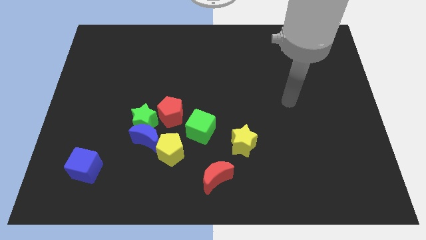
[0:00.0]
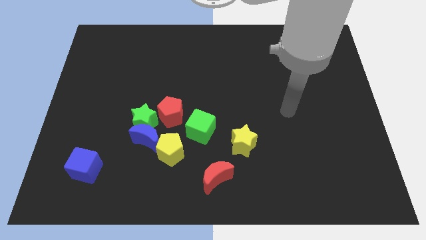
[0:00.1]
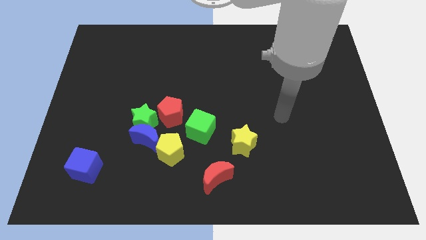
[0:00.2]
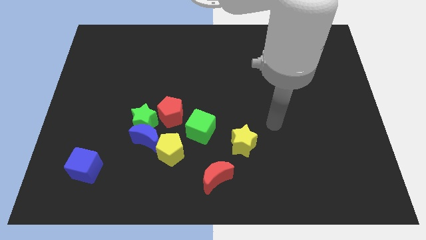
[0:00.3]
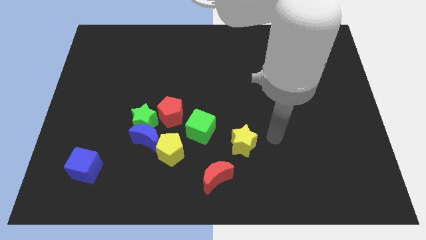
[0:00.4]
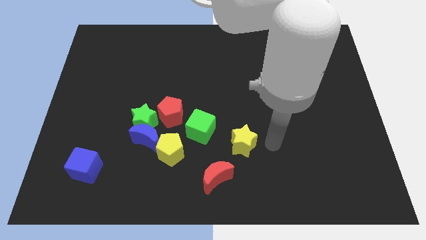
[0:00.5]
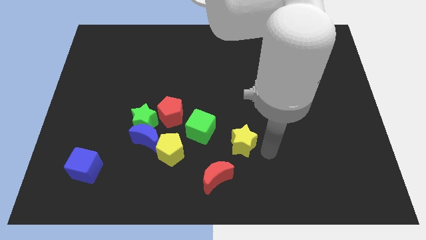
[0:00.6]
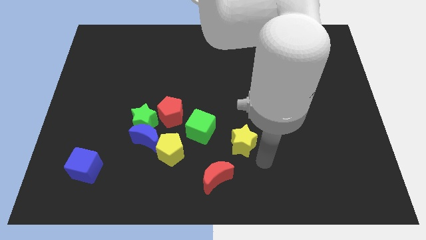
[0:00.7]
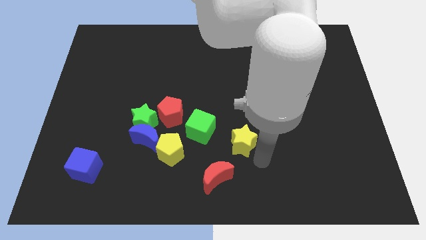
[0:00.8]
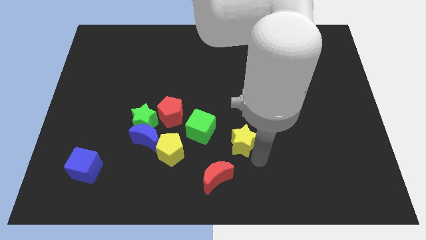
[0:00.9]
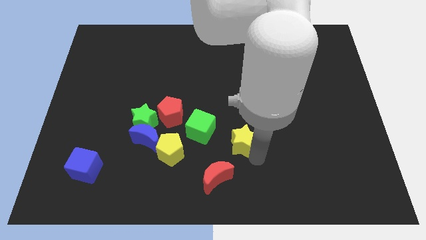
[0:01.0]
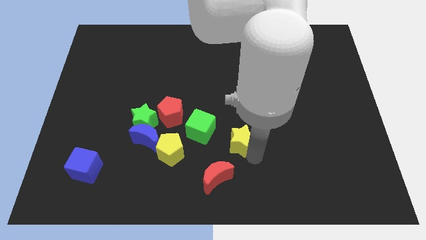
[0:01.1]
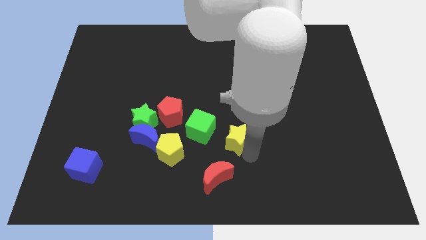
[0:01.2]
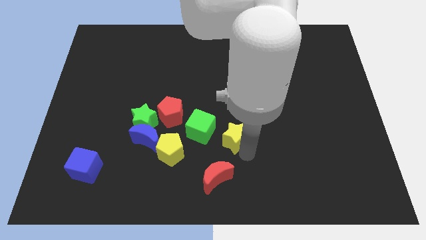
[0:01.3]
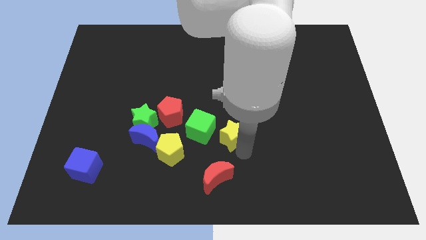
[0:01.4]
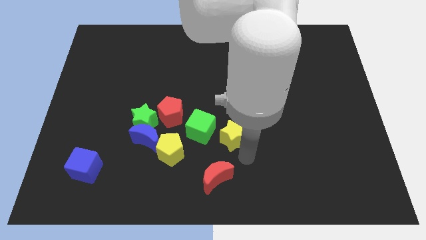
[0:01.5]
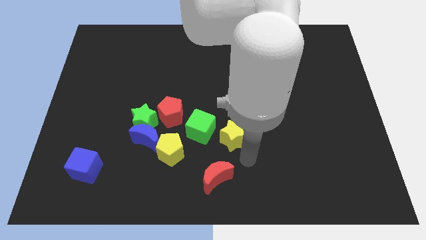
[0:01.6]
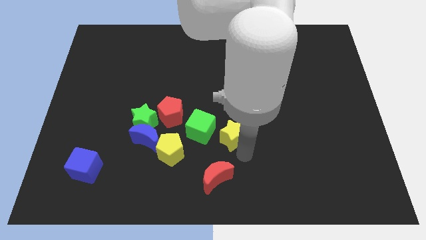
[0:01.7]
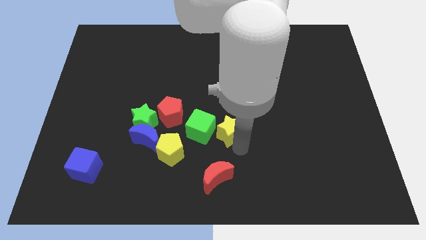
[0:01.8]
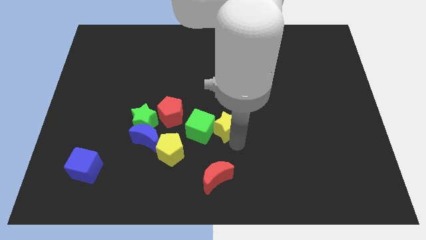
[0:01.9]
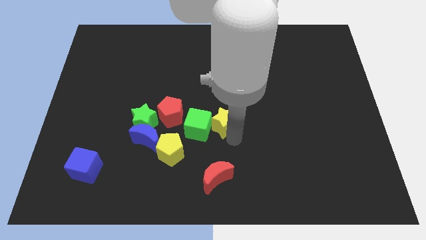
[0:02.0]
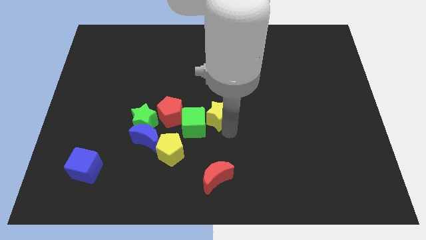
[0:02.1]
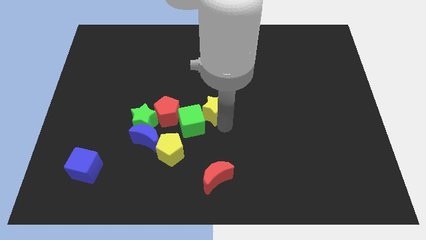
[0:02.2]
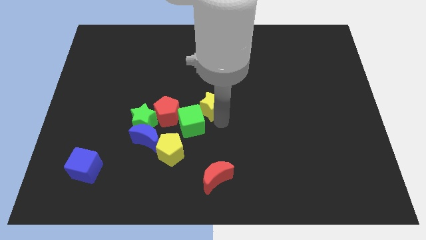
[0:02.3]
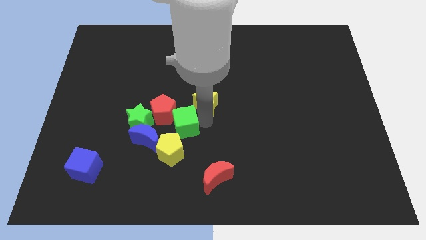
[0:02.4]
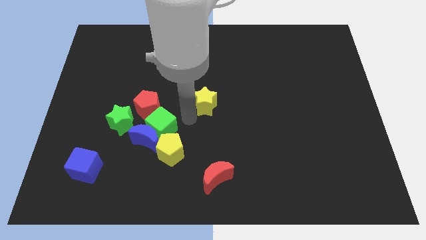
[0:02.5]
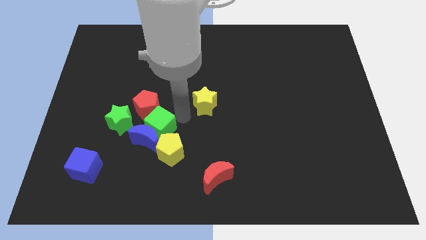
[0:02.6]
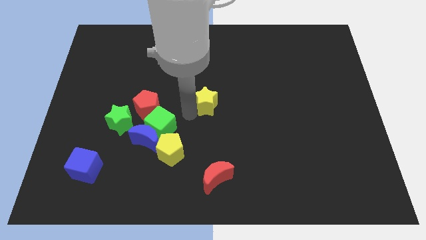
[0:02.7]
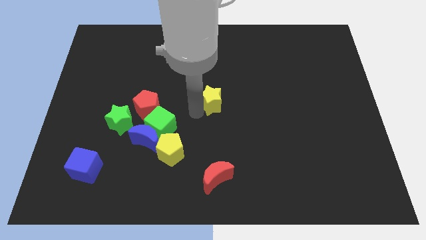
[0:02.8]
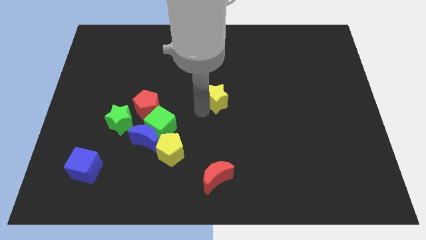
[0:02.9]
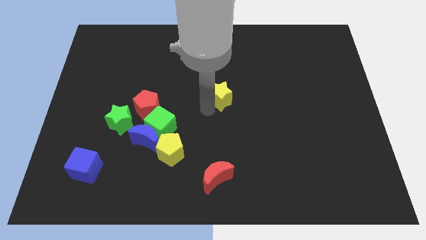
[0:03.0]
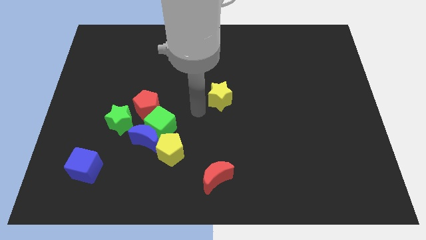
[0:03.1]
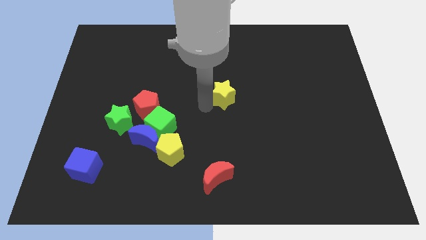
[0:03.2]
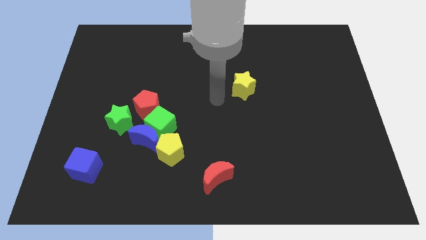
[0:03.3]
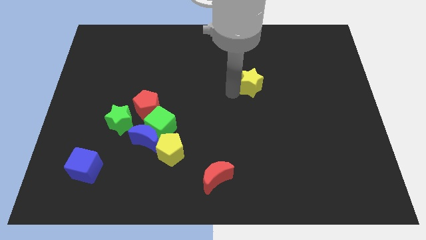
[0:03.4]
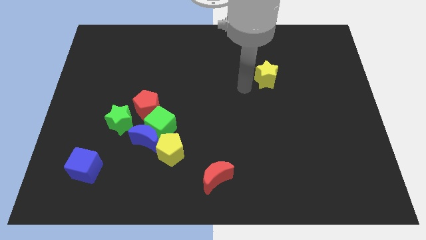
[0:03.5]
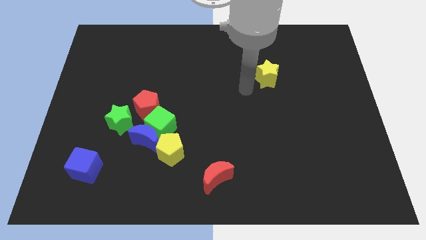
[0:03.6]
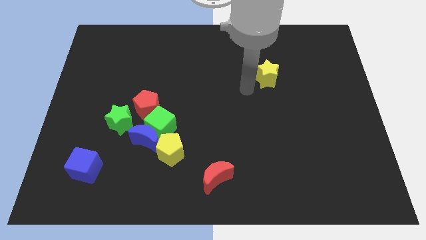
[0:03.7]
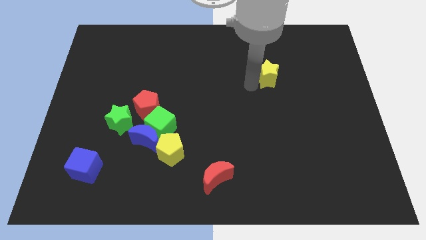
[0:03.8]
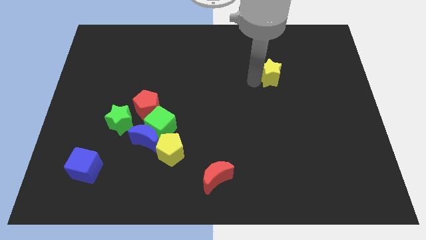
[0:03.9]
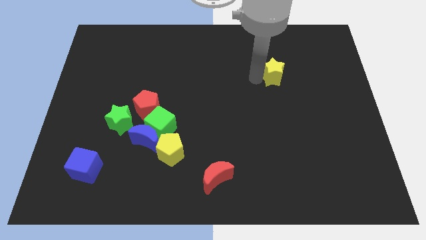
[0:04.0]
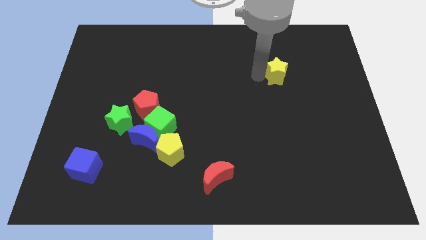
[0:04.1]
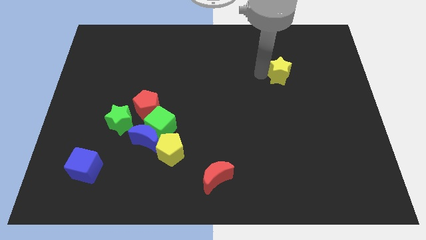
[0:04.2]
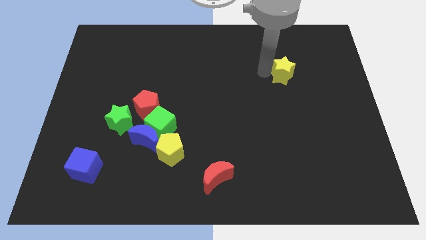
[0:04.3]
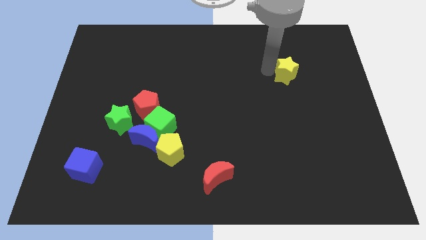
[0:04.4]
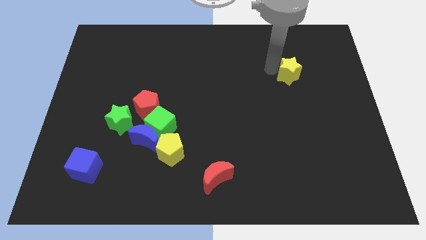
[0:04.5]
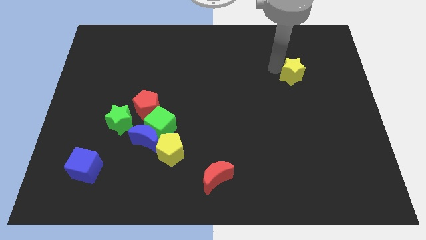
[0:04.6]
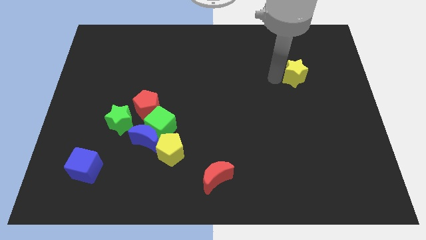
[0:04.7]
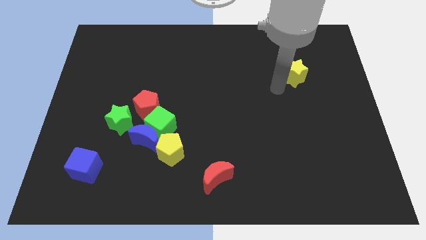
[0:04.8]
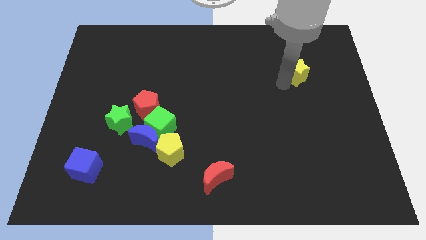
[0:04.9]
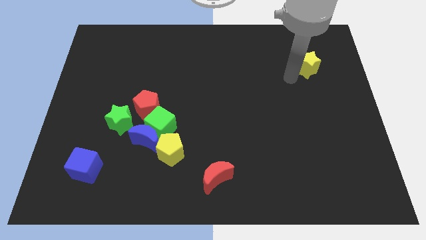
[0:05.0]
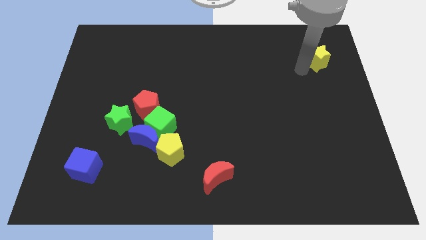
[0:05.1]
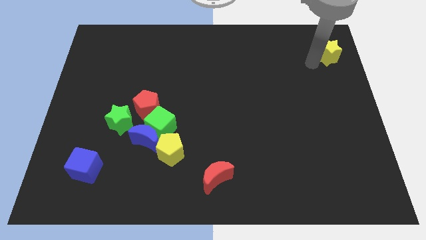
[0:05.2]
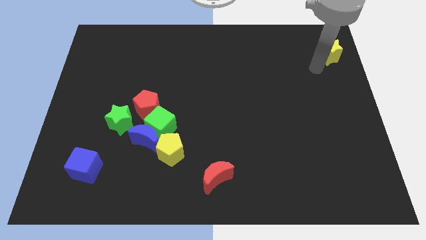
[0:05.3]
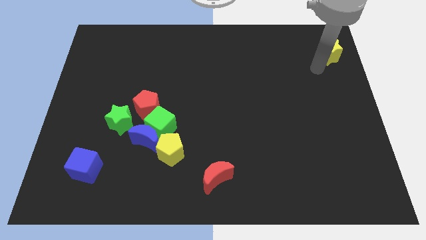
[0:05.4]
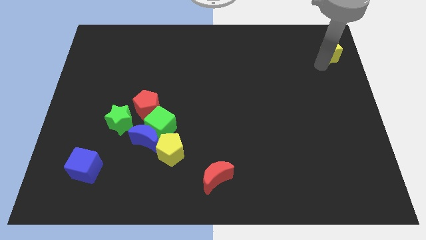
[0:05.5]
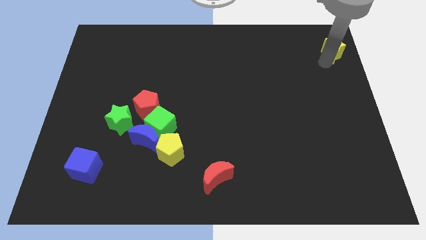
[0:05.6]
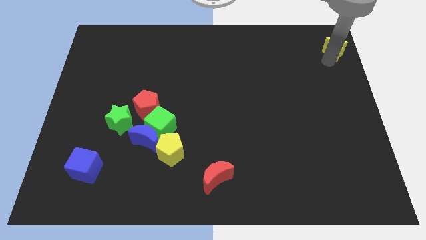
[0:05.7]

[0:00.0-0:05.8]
move the yellow star to the top right of the board
